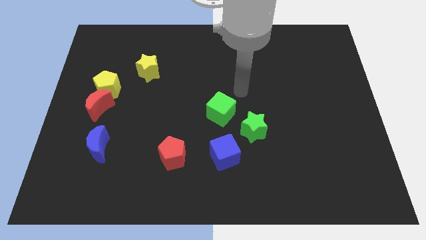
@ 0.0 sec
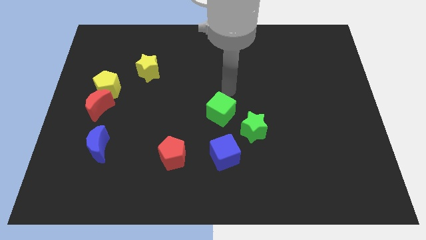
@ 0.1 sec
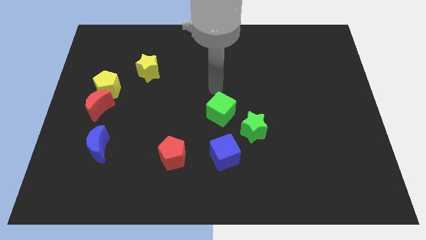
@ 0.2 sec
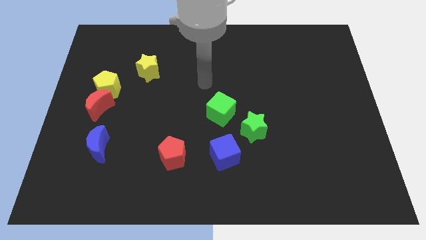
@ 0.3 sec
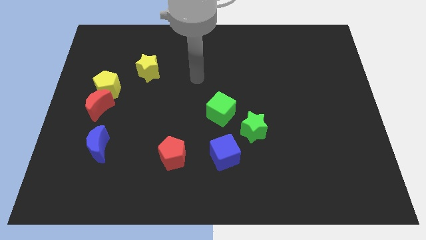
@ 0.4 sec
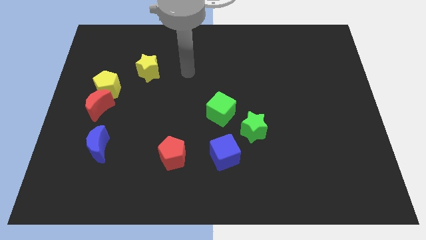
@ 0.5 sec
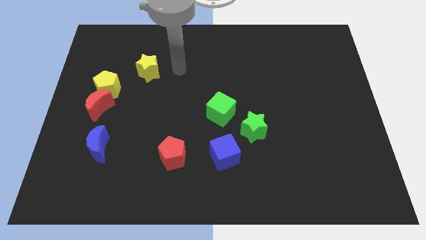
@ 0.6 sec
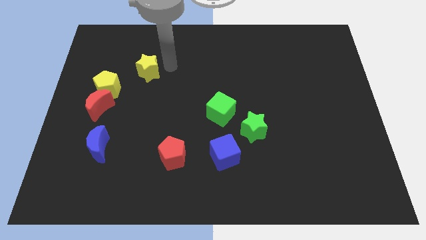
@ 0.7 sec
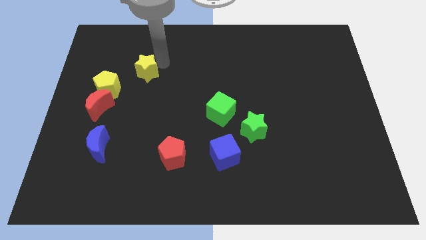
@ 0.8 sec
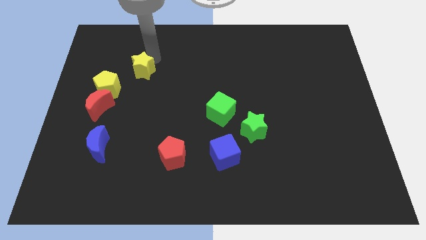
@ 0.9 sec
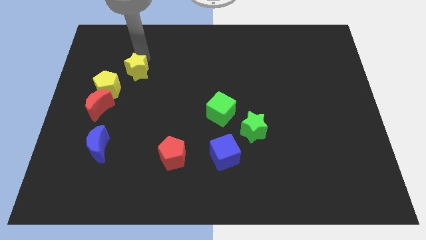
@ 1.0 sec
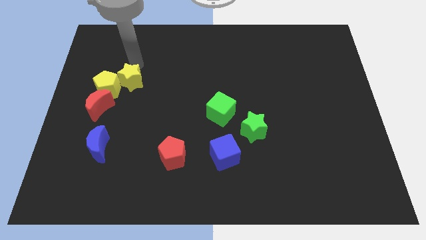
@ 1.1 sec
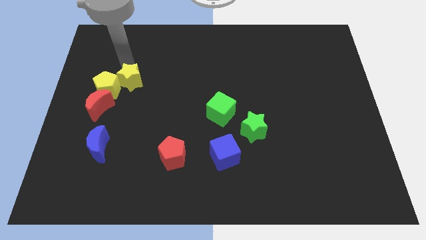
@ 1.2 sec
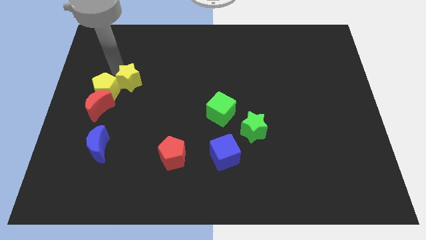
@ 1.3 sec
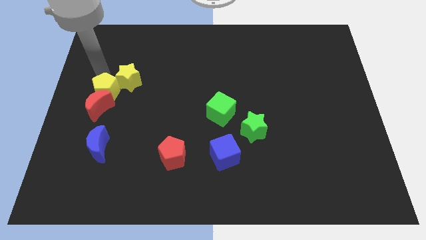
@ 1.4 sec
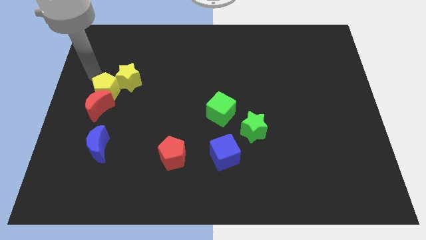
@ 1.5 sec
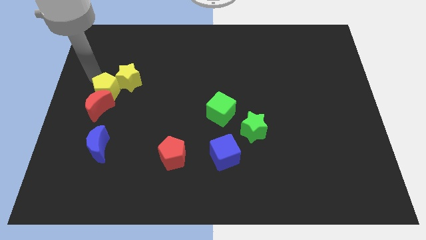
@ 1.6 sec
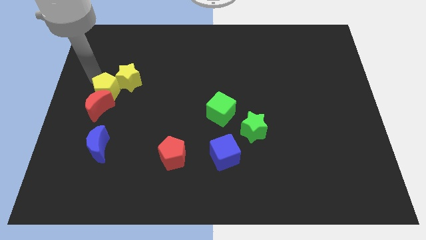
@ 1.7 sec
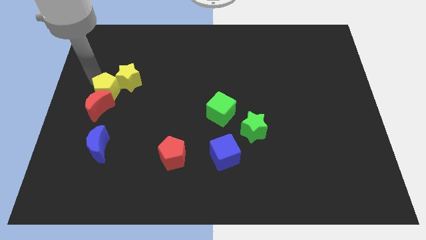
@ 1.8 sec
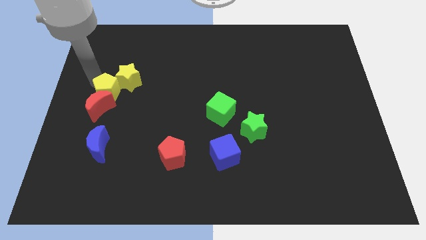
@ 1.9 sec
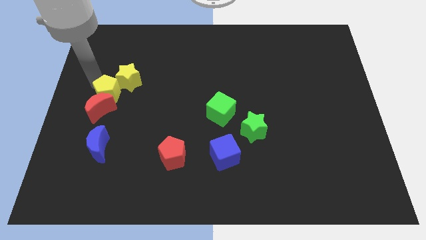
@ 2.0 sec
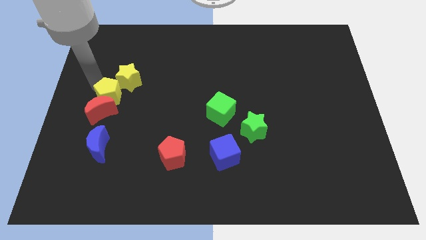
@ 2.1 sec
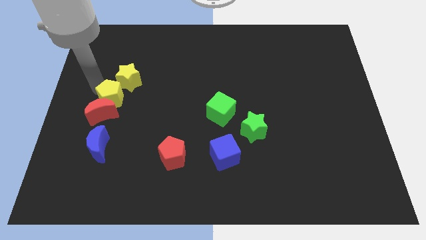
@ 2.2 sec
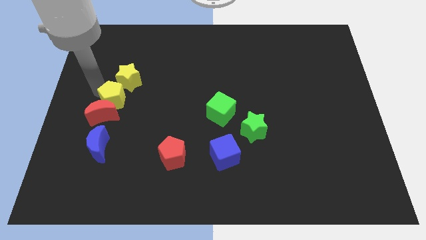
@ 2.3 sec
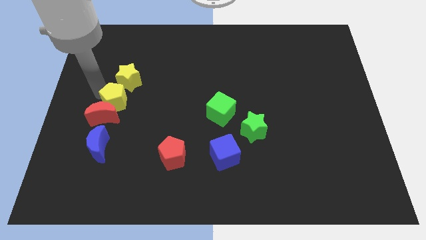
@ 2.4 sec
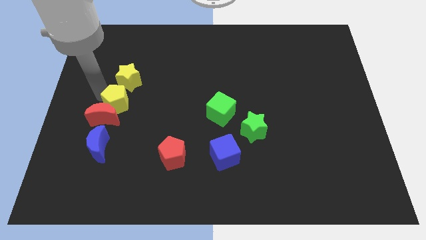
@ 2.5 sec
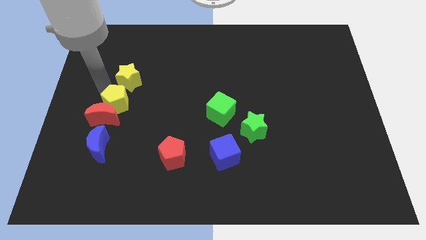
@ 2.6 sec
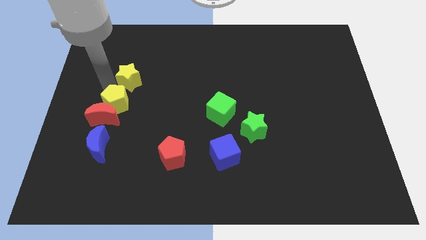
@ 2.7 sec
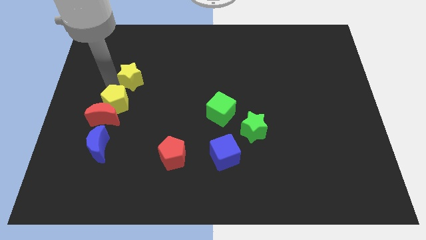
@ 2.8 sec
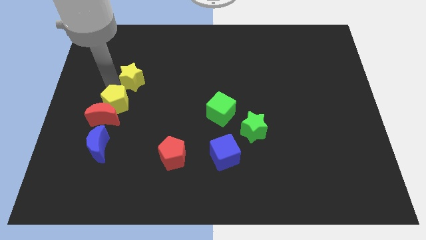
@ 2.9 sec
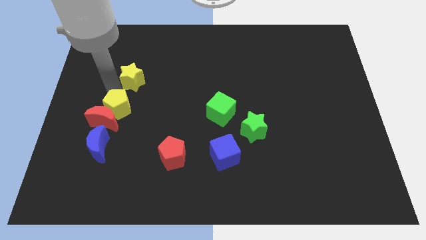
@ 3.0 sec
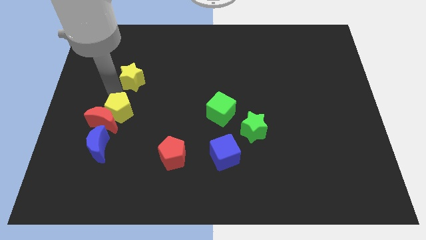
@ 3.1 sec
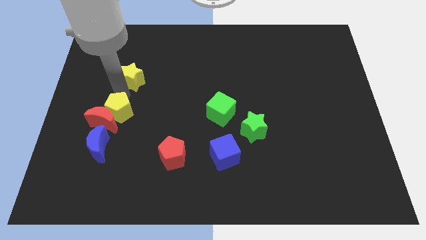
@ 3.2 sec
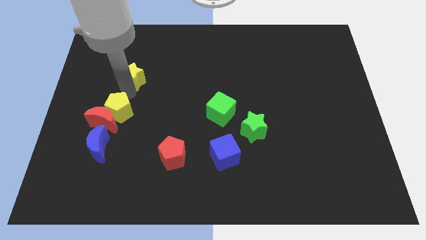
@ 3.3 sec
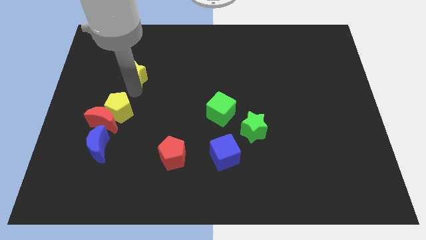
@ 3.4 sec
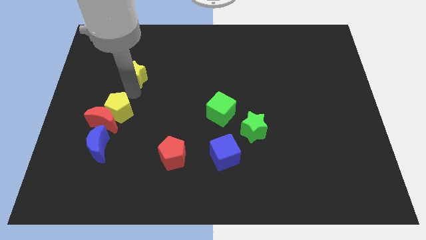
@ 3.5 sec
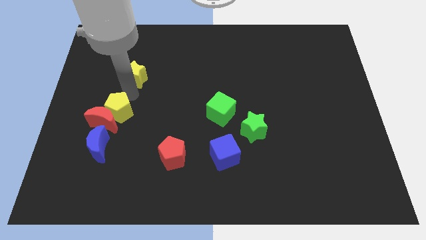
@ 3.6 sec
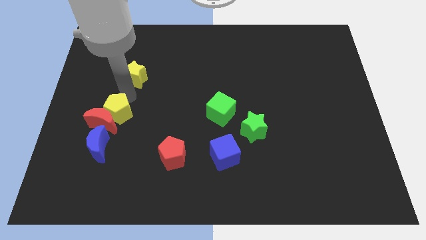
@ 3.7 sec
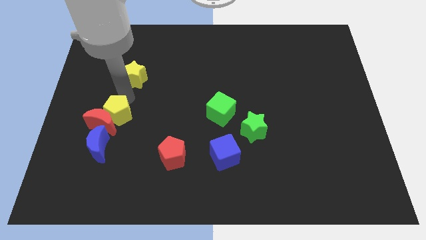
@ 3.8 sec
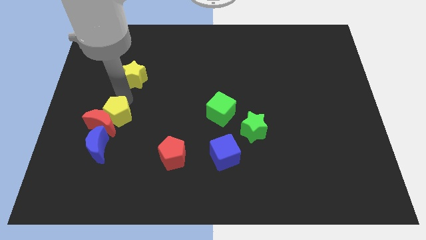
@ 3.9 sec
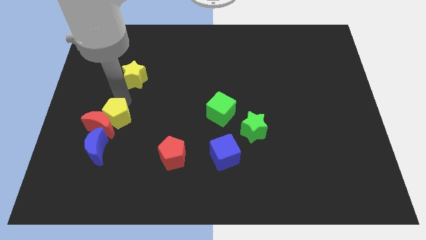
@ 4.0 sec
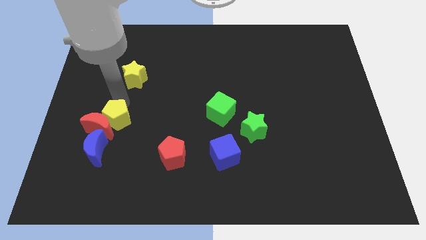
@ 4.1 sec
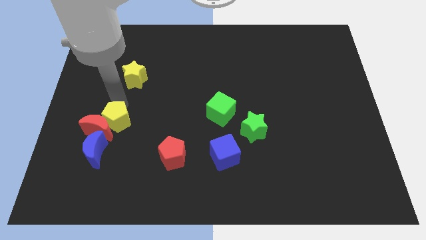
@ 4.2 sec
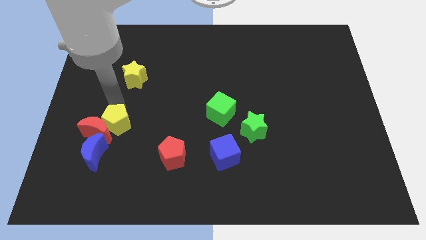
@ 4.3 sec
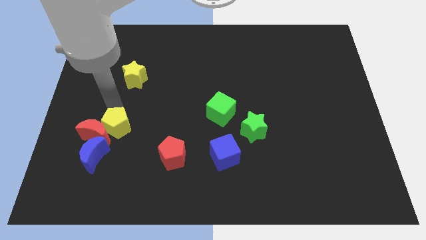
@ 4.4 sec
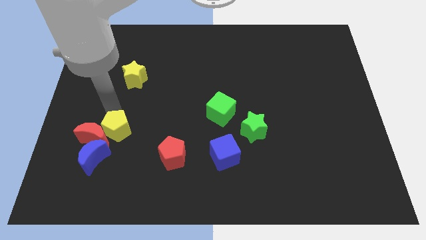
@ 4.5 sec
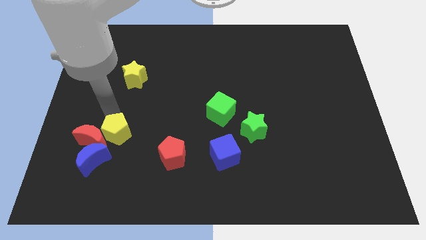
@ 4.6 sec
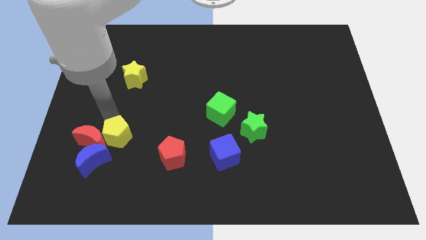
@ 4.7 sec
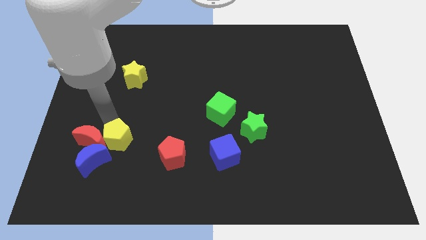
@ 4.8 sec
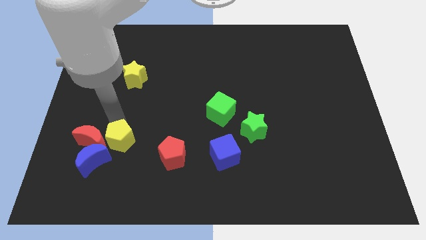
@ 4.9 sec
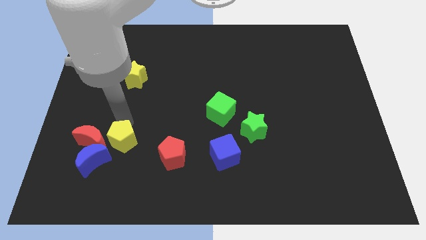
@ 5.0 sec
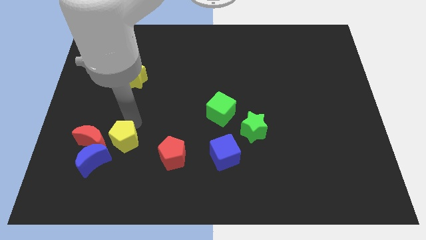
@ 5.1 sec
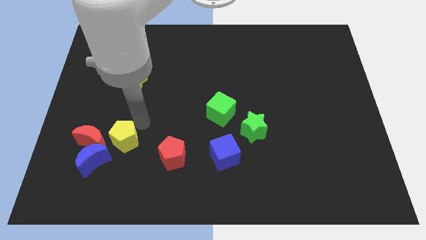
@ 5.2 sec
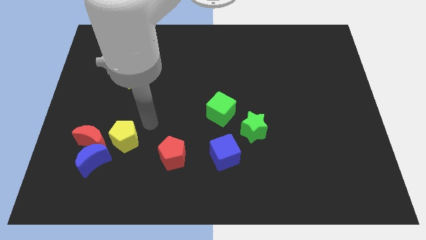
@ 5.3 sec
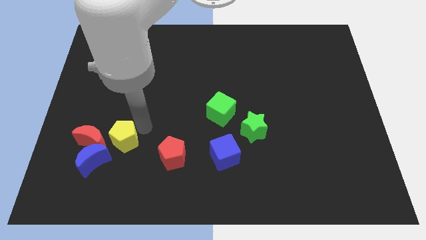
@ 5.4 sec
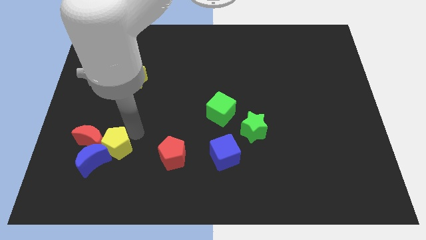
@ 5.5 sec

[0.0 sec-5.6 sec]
slide the yellow pentagon to the blue moon

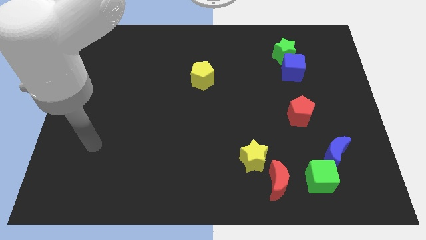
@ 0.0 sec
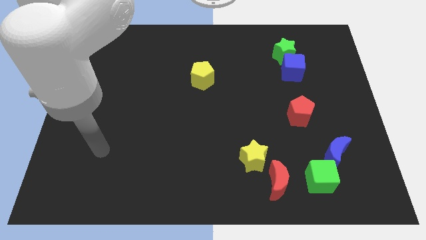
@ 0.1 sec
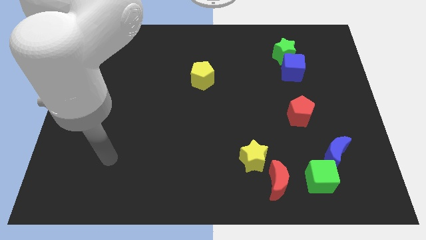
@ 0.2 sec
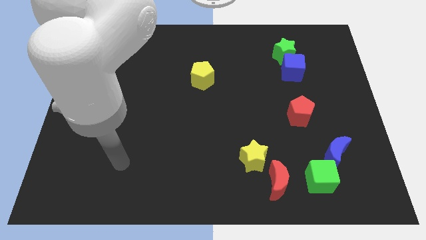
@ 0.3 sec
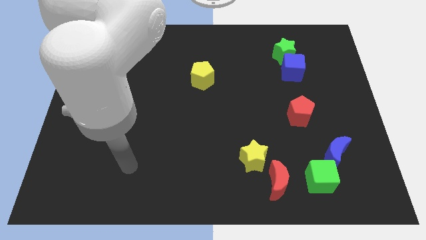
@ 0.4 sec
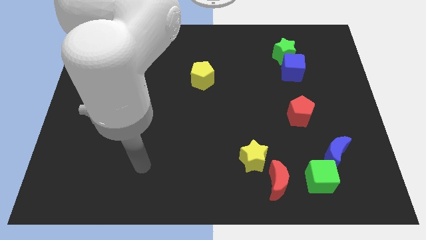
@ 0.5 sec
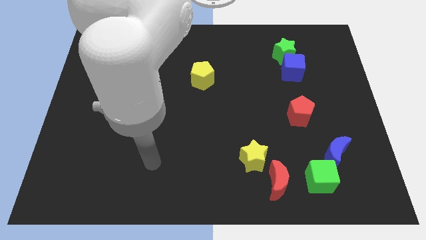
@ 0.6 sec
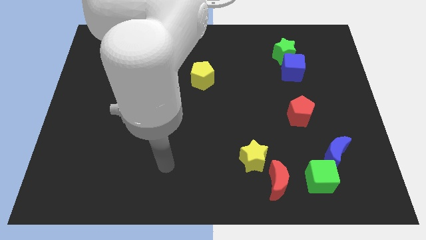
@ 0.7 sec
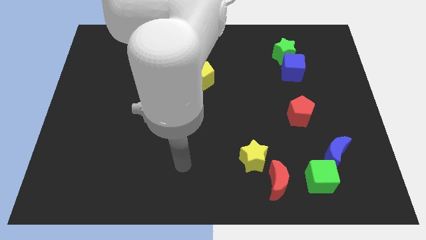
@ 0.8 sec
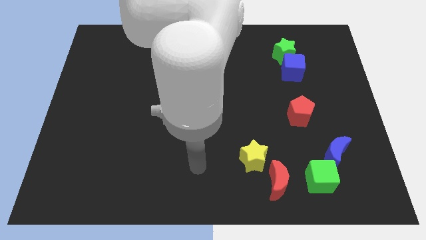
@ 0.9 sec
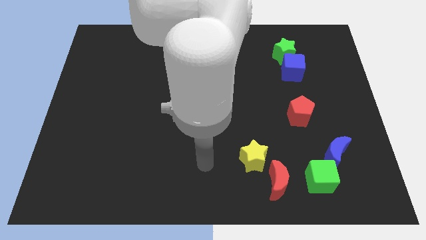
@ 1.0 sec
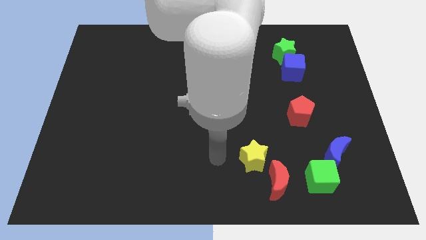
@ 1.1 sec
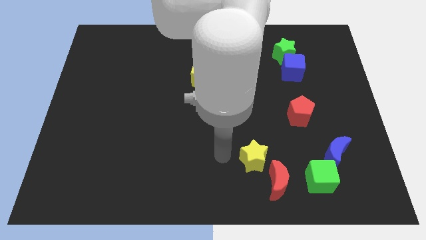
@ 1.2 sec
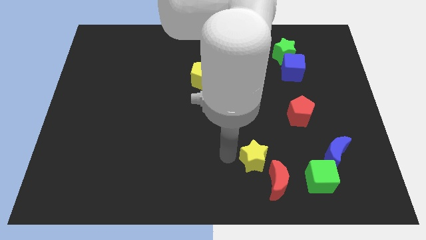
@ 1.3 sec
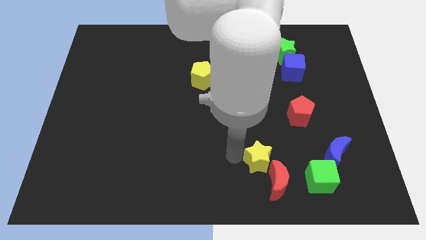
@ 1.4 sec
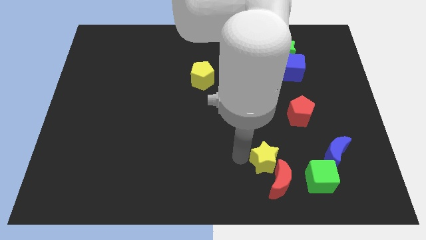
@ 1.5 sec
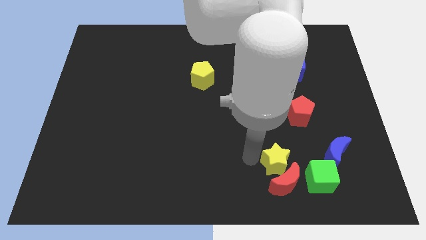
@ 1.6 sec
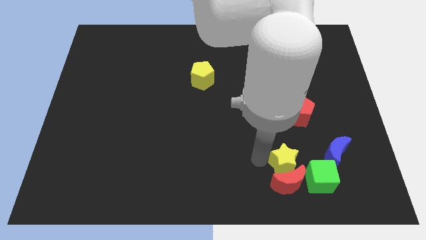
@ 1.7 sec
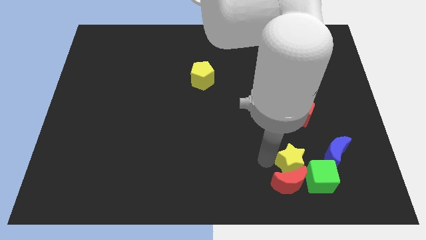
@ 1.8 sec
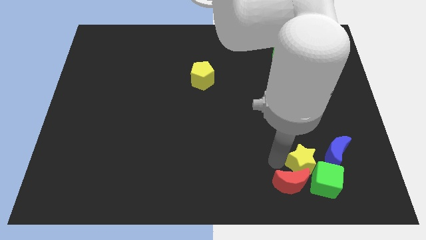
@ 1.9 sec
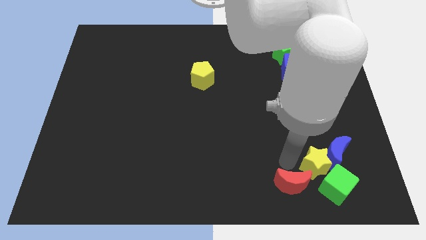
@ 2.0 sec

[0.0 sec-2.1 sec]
move the yellow star next to the blue moon

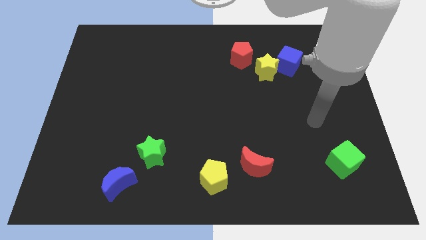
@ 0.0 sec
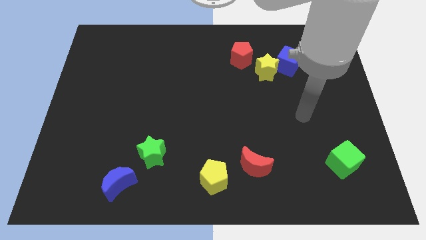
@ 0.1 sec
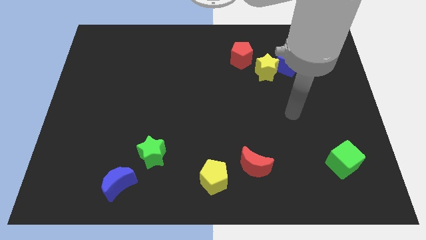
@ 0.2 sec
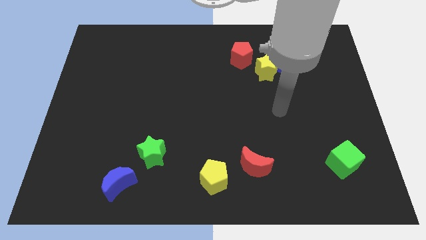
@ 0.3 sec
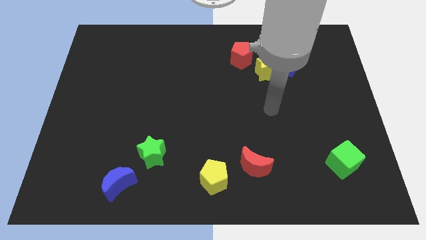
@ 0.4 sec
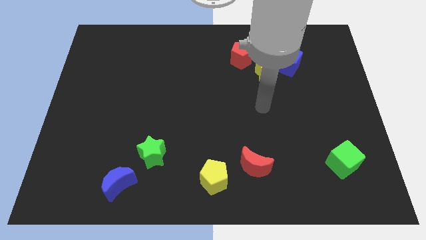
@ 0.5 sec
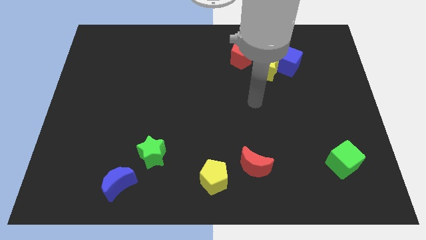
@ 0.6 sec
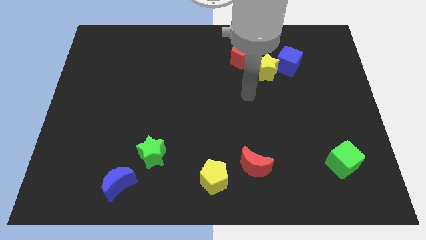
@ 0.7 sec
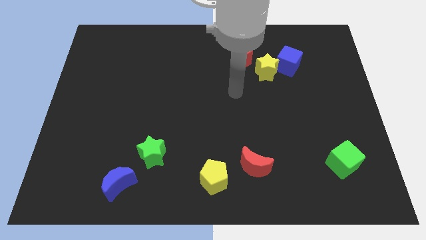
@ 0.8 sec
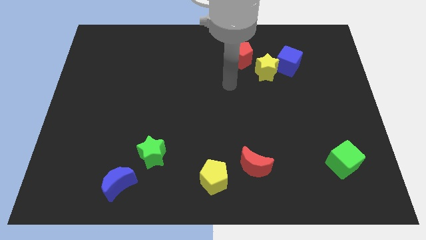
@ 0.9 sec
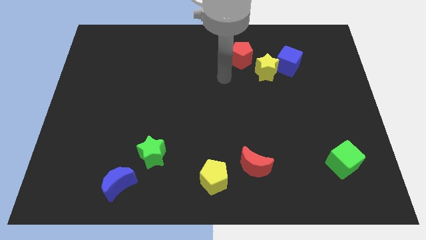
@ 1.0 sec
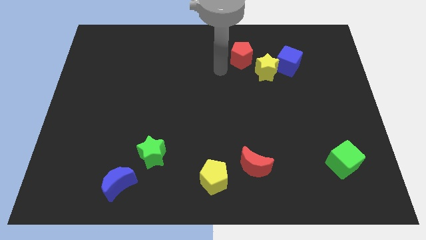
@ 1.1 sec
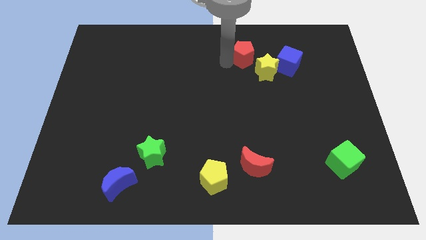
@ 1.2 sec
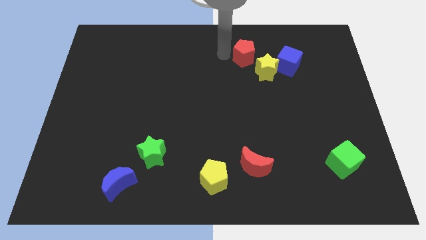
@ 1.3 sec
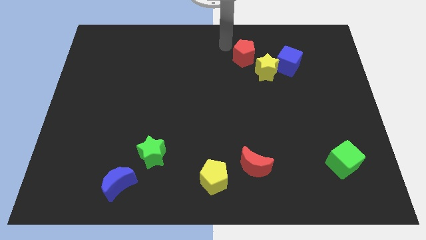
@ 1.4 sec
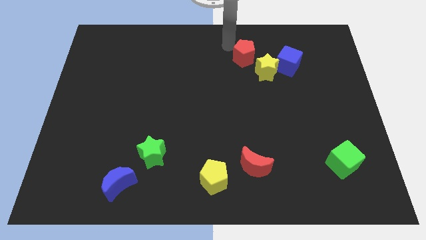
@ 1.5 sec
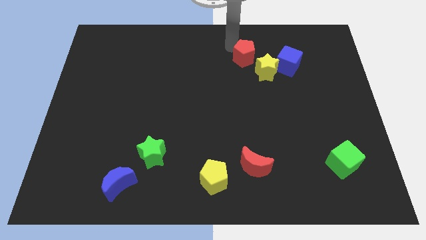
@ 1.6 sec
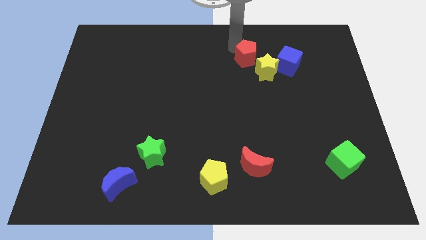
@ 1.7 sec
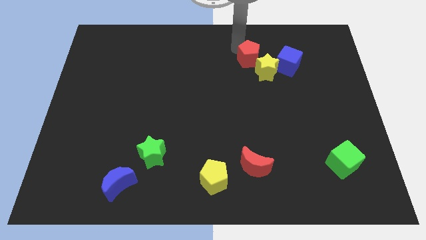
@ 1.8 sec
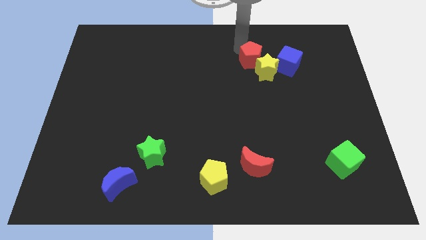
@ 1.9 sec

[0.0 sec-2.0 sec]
move the red pentagon towards the yellow star
